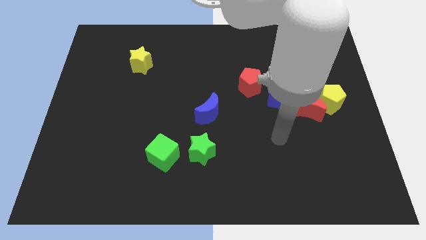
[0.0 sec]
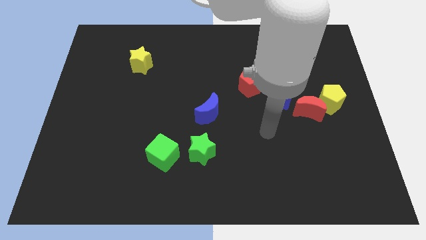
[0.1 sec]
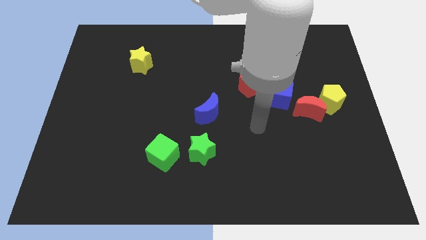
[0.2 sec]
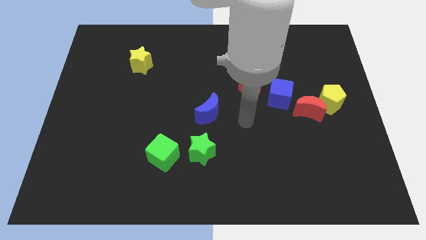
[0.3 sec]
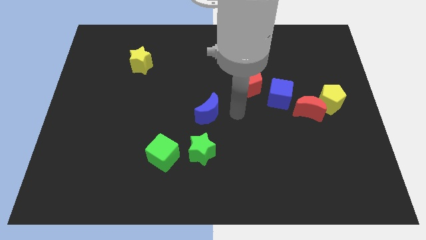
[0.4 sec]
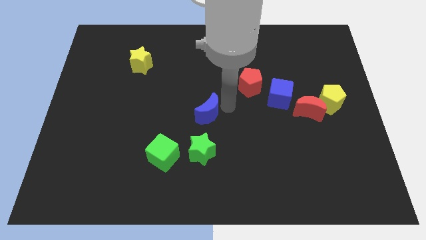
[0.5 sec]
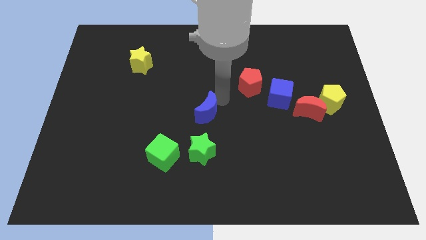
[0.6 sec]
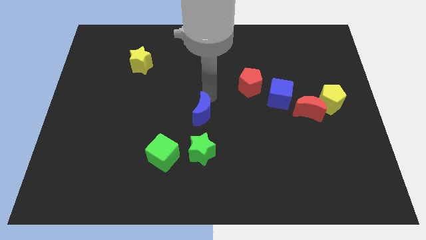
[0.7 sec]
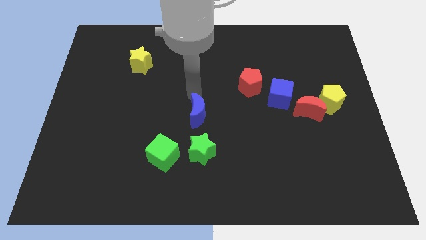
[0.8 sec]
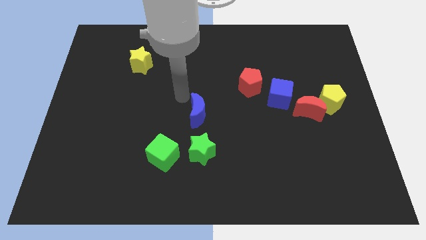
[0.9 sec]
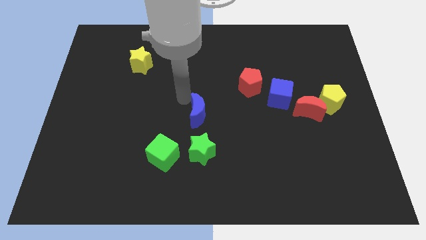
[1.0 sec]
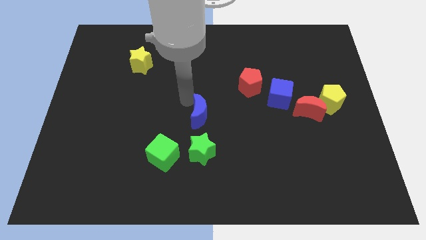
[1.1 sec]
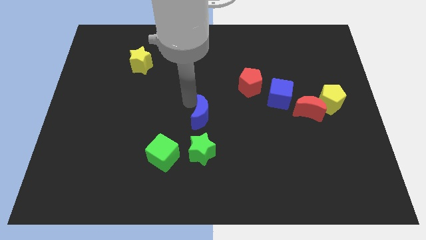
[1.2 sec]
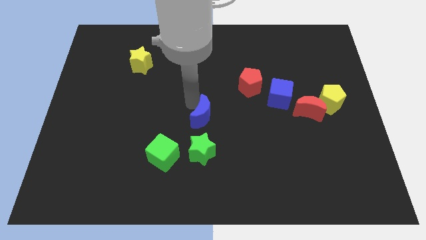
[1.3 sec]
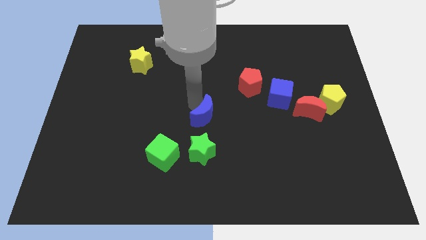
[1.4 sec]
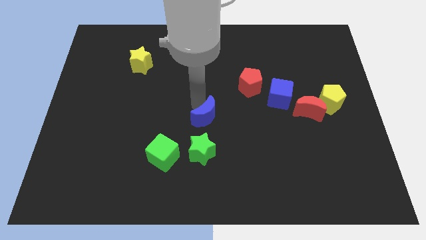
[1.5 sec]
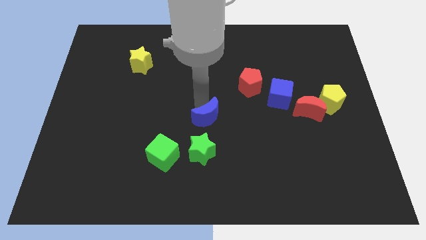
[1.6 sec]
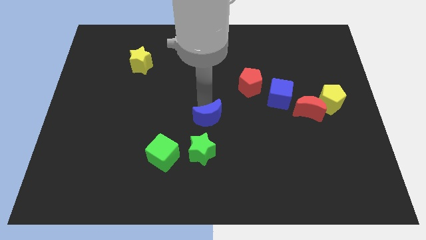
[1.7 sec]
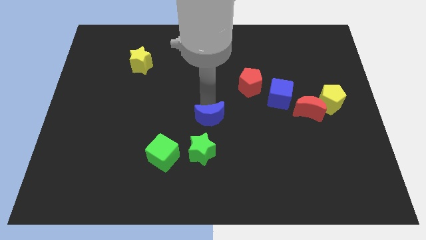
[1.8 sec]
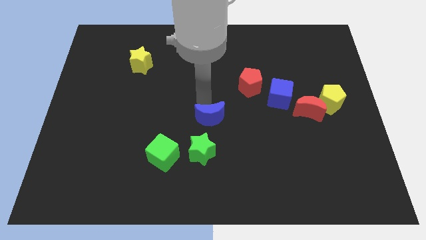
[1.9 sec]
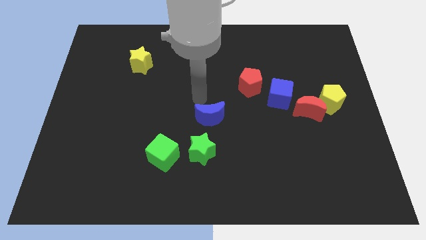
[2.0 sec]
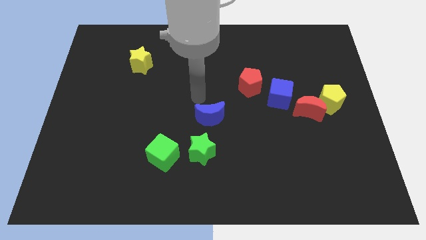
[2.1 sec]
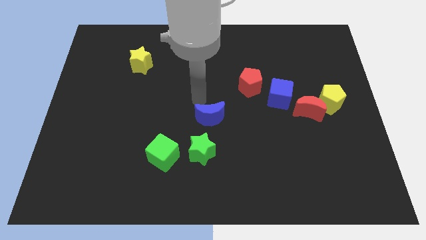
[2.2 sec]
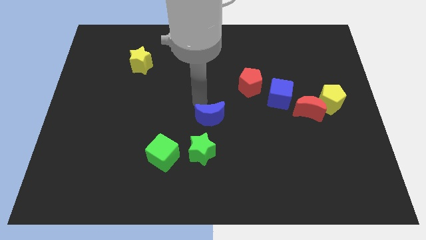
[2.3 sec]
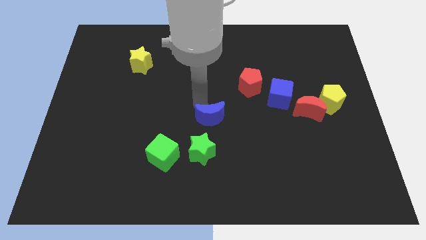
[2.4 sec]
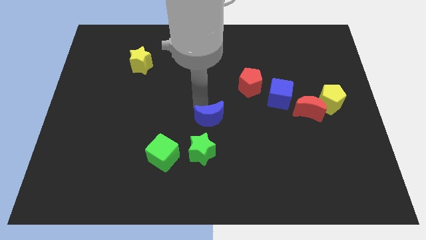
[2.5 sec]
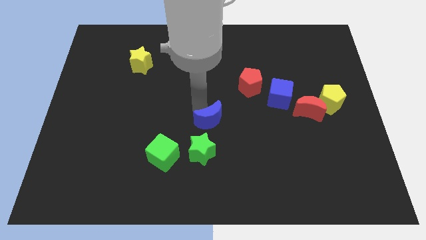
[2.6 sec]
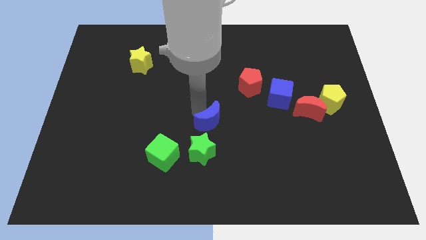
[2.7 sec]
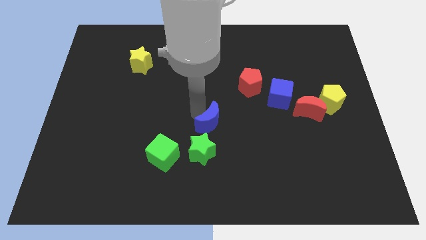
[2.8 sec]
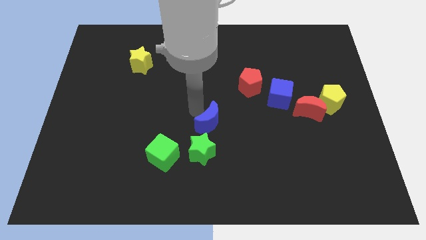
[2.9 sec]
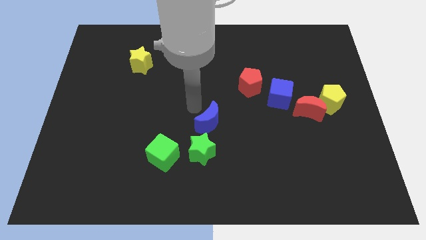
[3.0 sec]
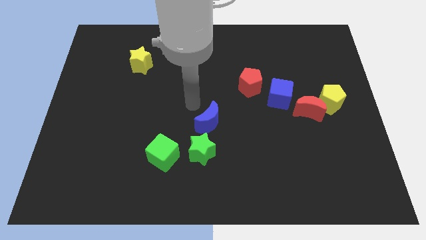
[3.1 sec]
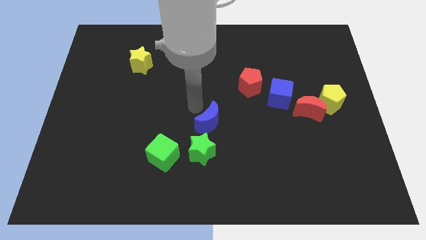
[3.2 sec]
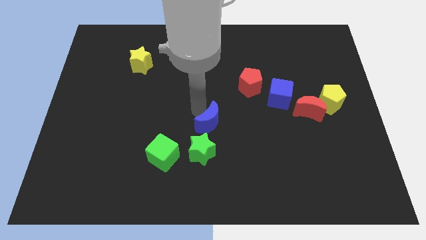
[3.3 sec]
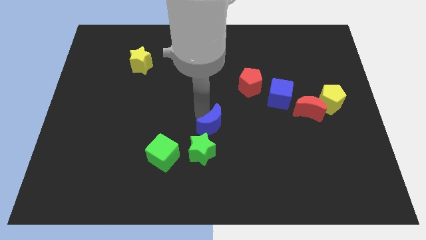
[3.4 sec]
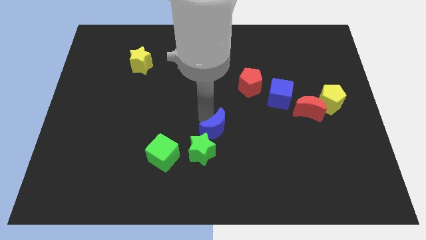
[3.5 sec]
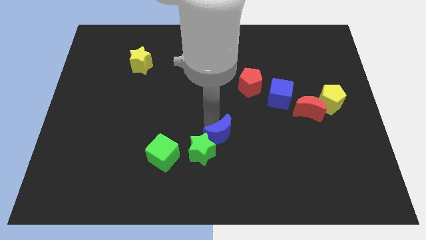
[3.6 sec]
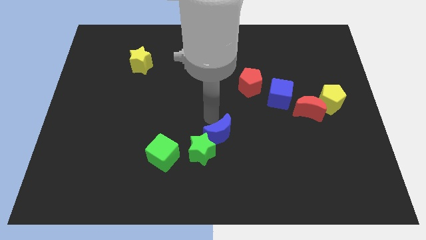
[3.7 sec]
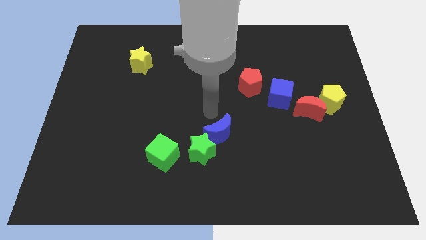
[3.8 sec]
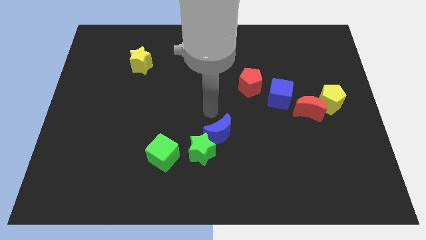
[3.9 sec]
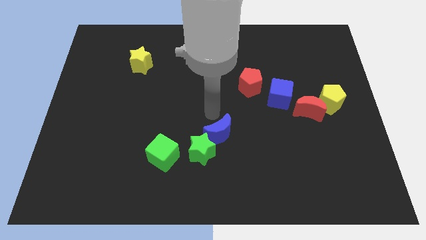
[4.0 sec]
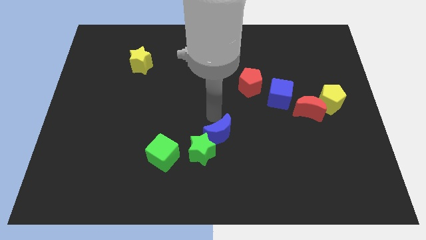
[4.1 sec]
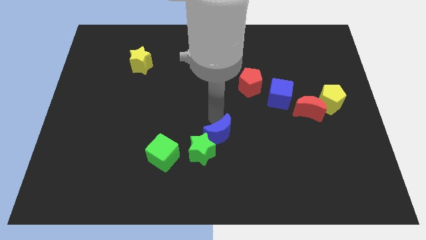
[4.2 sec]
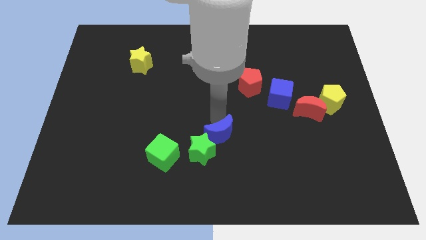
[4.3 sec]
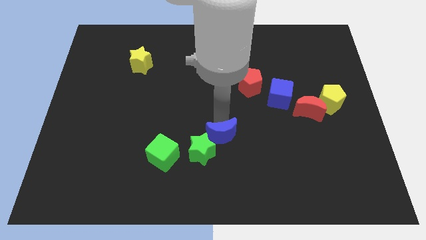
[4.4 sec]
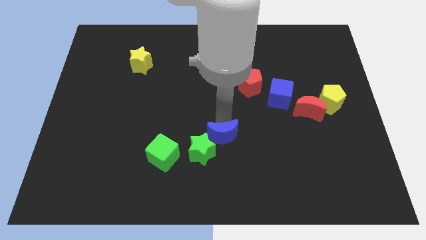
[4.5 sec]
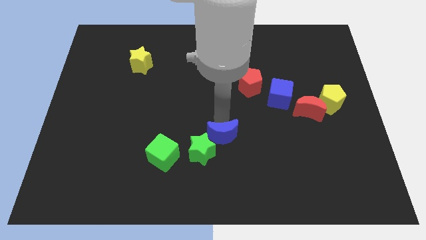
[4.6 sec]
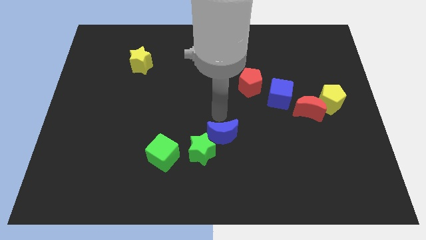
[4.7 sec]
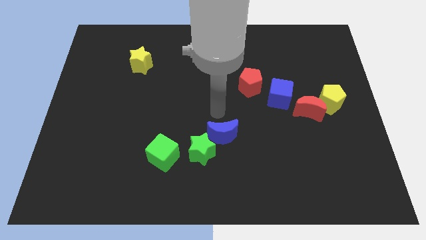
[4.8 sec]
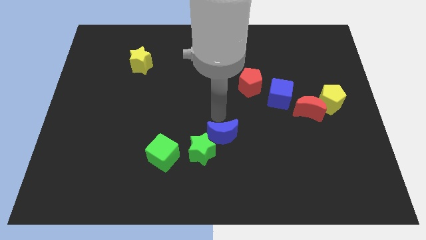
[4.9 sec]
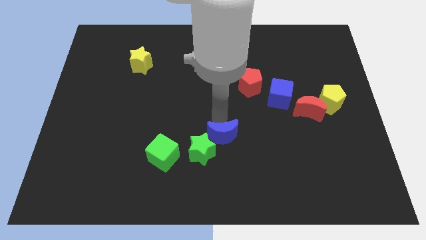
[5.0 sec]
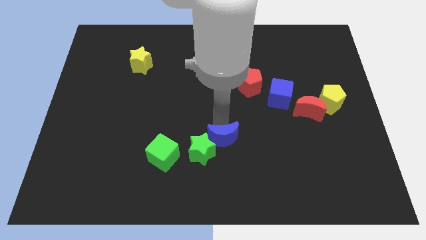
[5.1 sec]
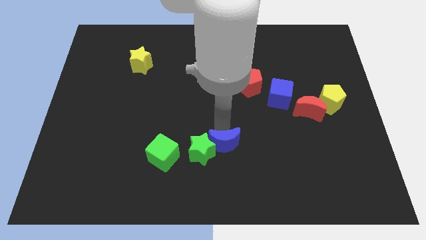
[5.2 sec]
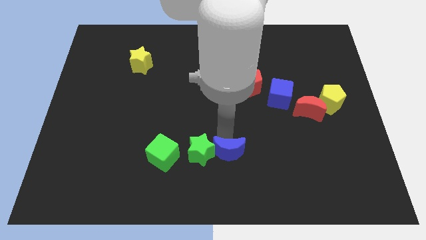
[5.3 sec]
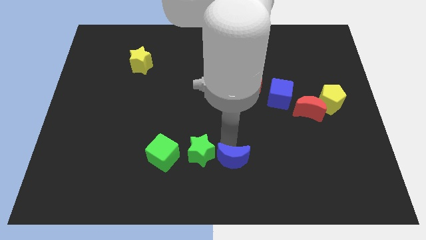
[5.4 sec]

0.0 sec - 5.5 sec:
put the blue moon to the bottom

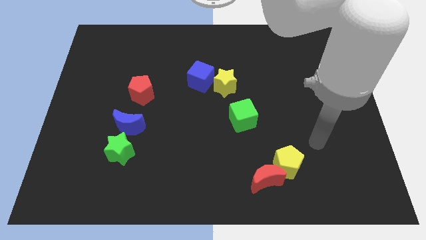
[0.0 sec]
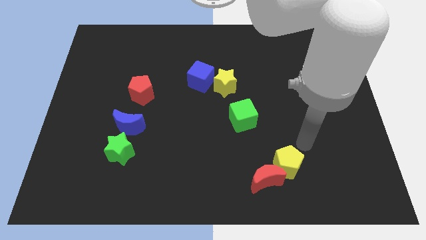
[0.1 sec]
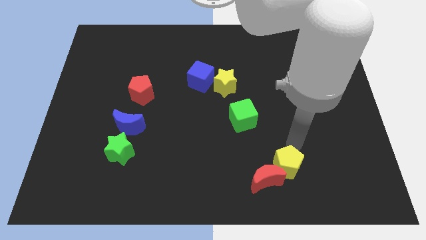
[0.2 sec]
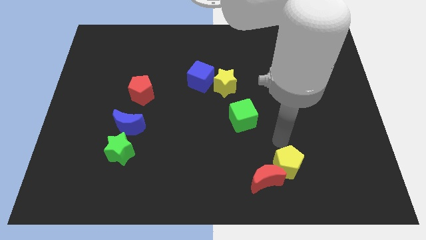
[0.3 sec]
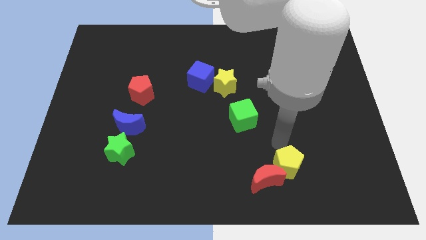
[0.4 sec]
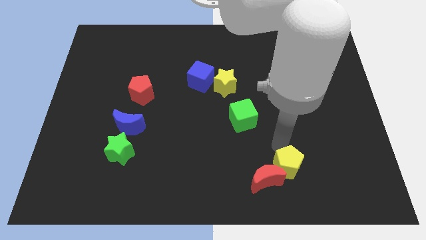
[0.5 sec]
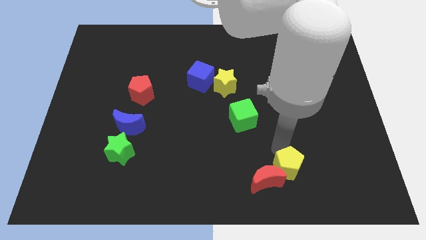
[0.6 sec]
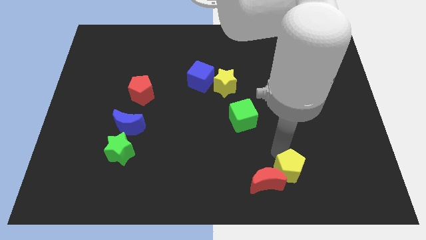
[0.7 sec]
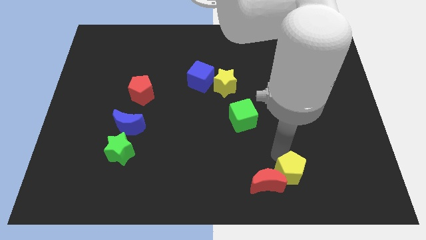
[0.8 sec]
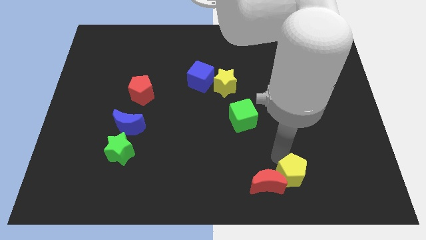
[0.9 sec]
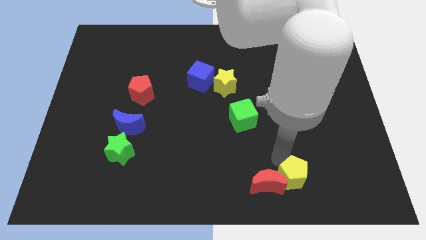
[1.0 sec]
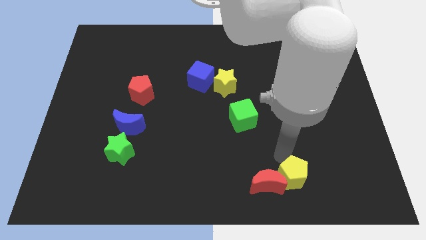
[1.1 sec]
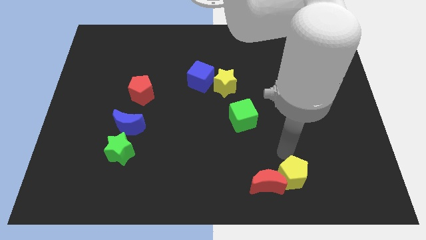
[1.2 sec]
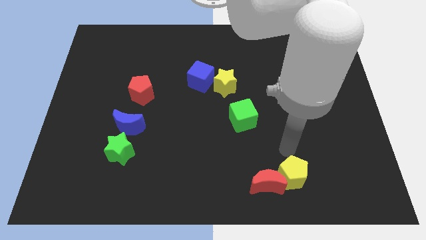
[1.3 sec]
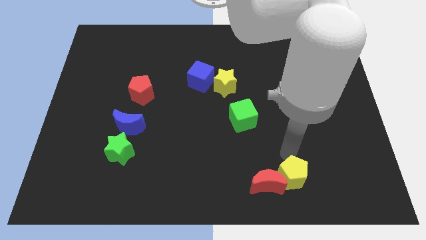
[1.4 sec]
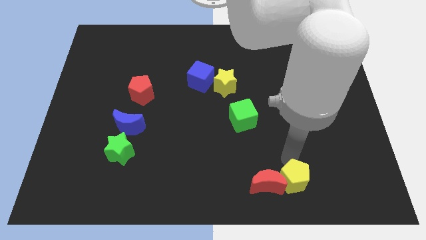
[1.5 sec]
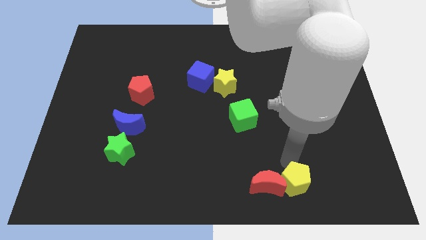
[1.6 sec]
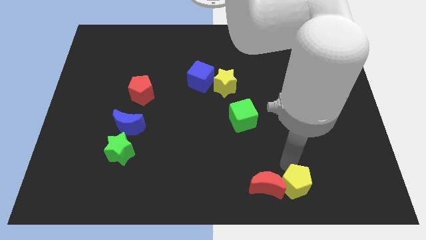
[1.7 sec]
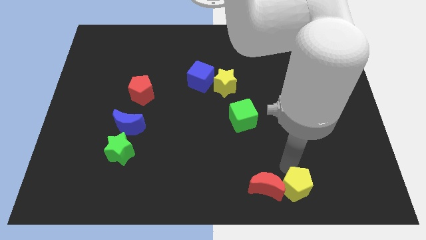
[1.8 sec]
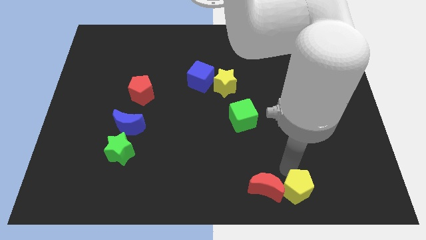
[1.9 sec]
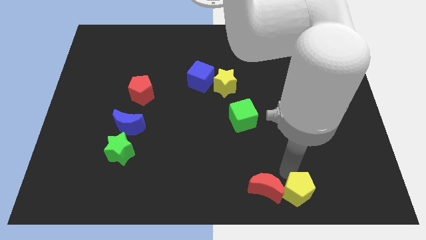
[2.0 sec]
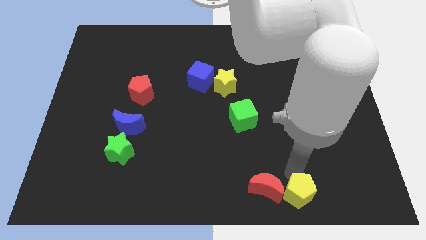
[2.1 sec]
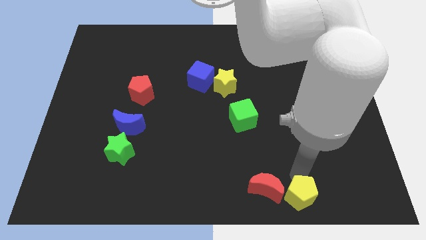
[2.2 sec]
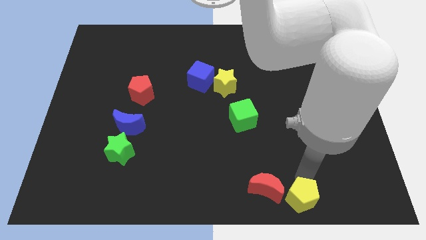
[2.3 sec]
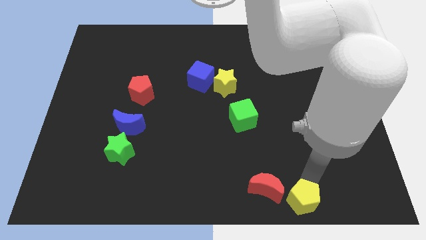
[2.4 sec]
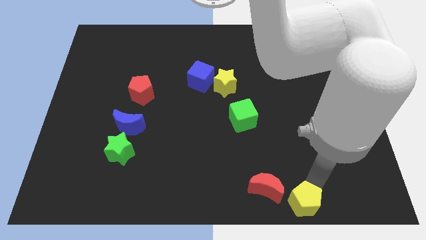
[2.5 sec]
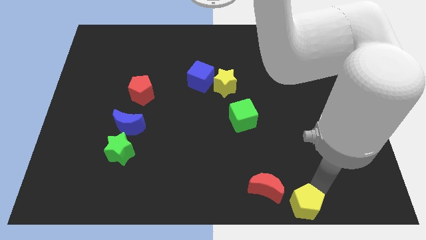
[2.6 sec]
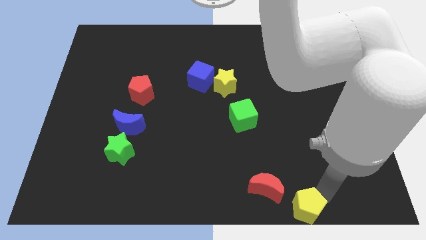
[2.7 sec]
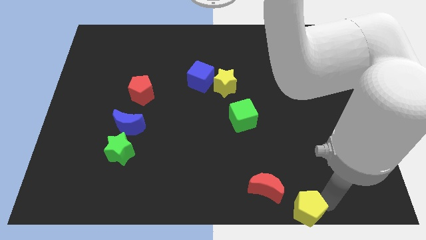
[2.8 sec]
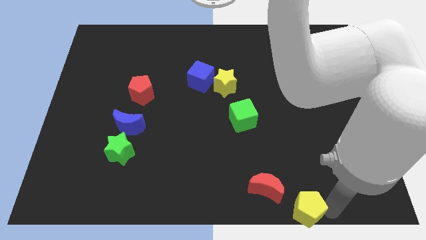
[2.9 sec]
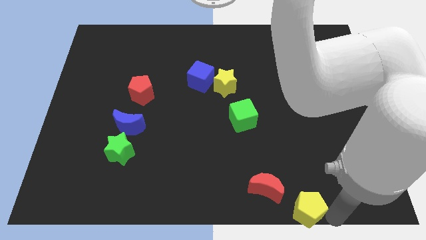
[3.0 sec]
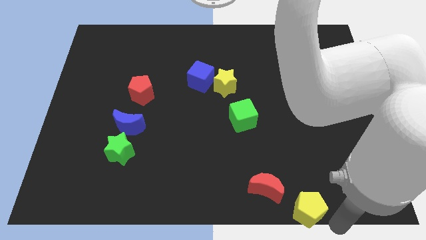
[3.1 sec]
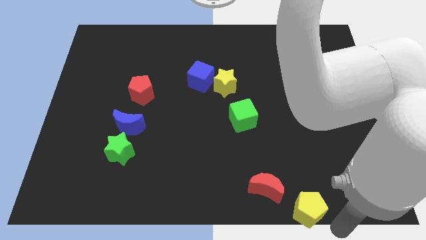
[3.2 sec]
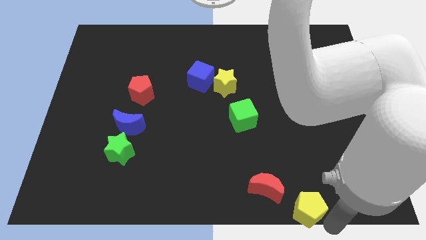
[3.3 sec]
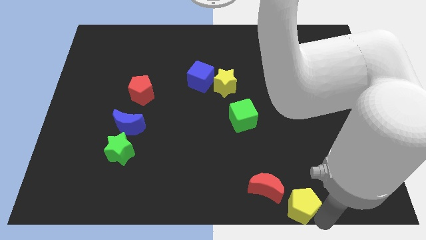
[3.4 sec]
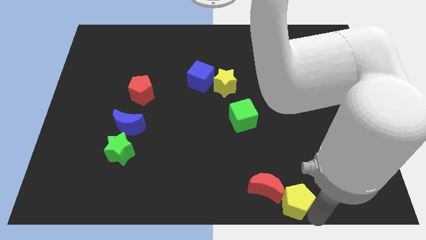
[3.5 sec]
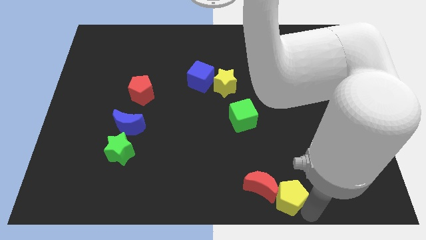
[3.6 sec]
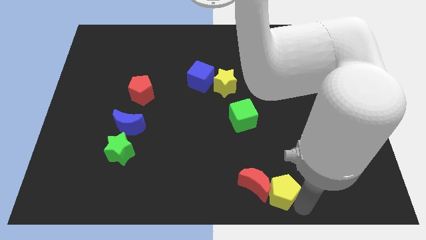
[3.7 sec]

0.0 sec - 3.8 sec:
move the yellow pentagon to the bottom
